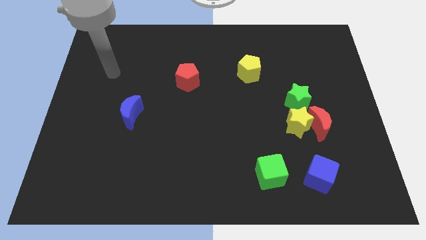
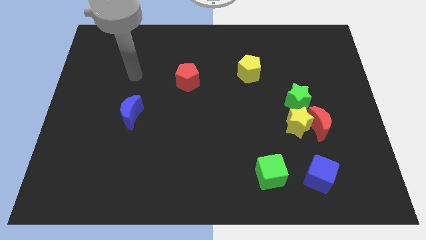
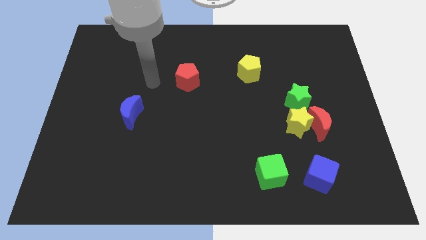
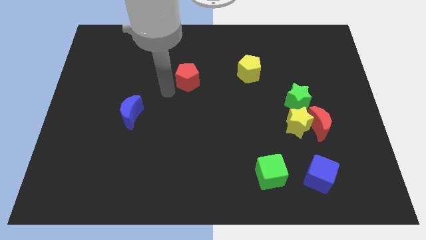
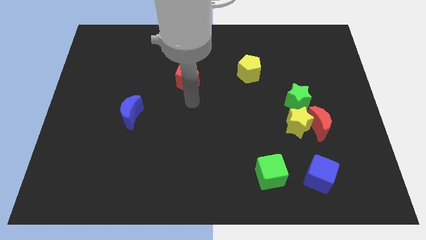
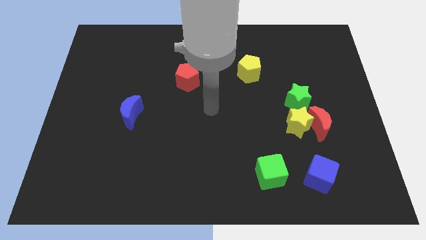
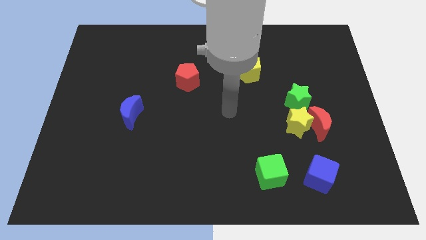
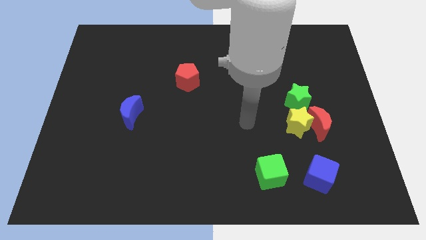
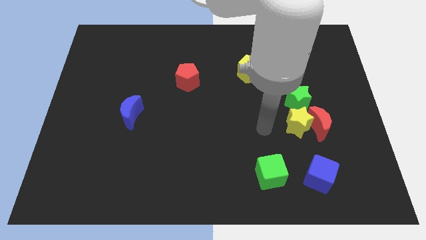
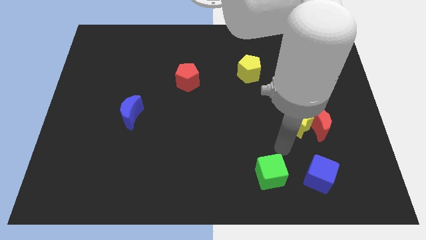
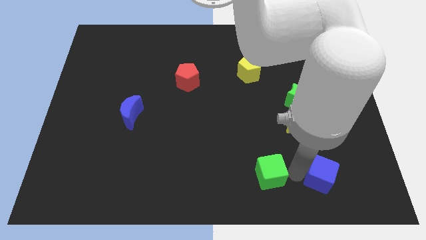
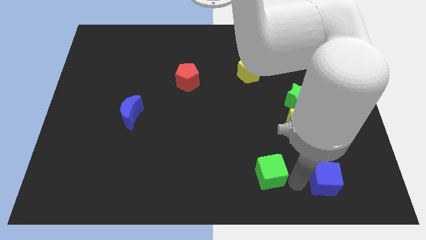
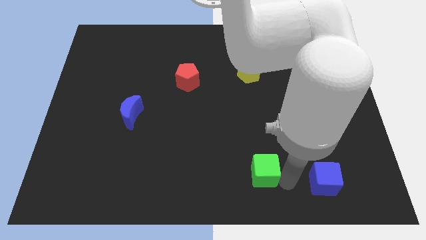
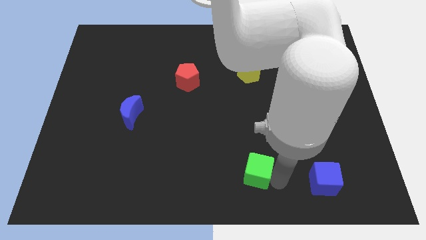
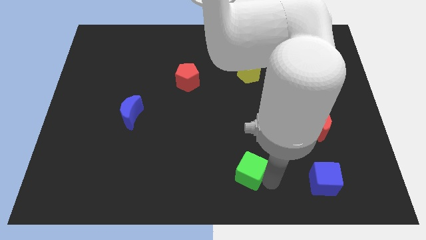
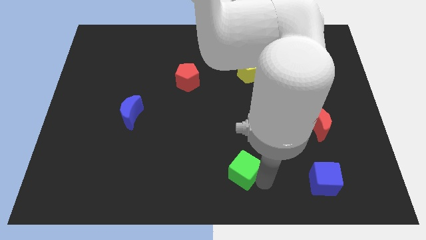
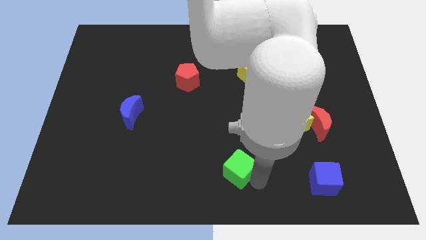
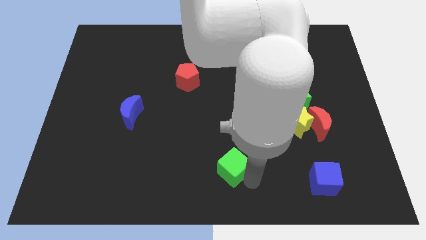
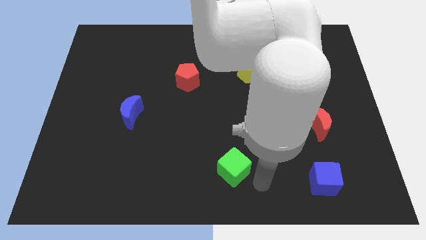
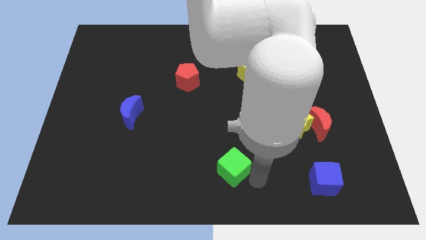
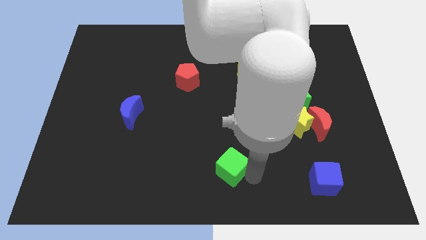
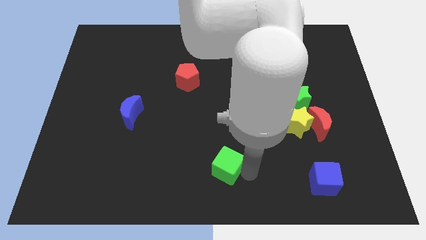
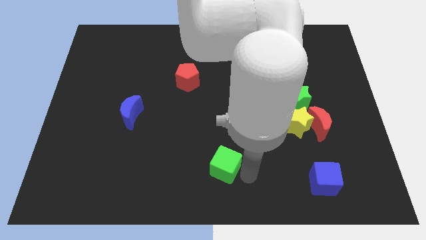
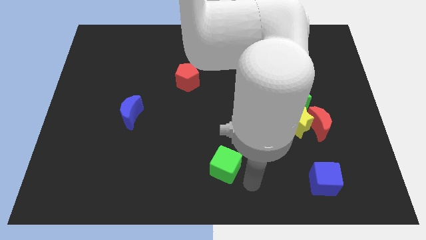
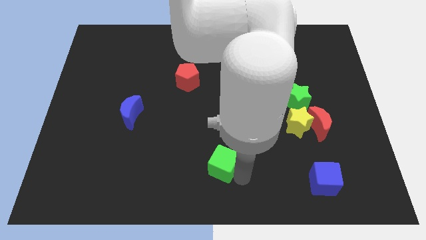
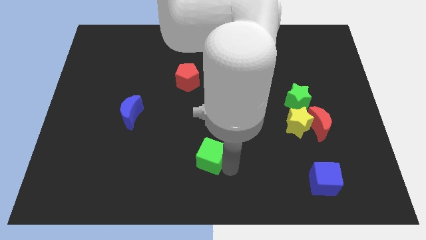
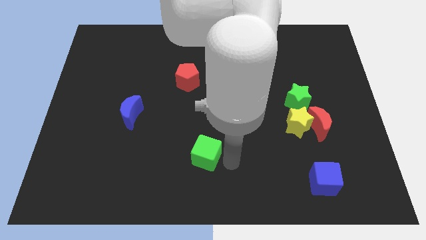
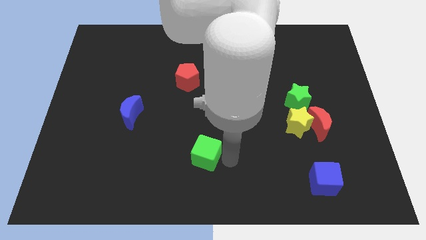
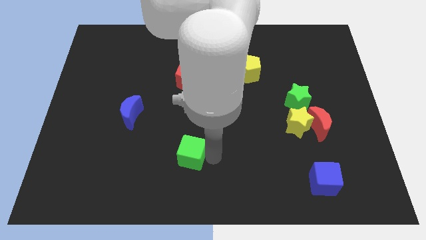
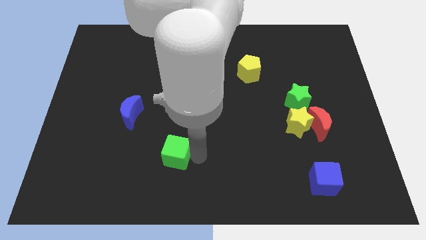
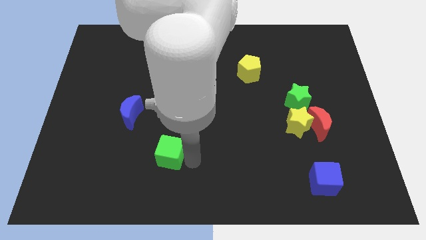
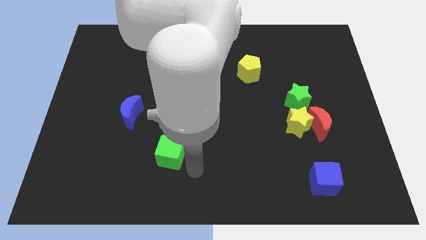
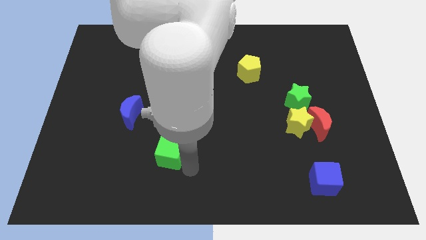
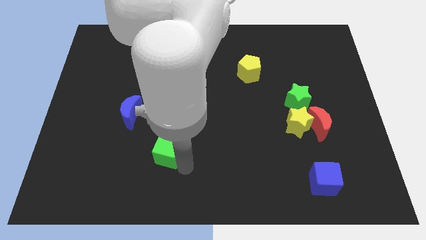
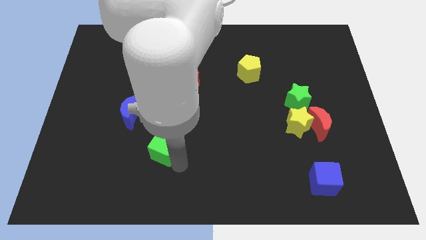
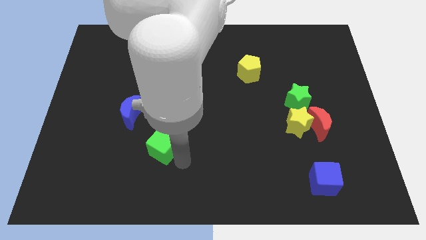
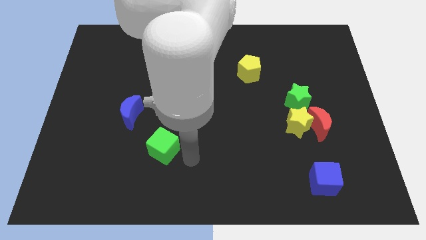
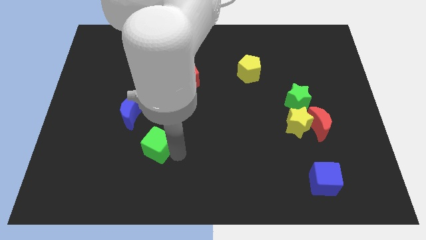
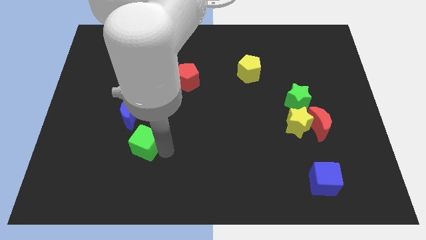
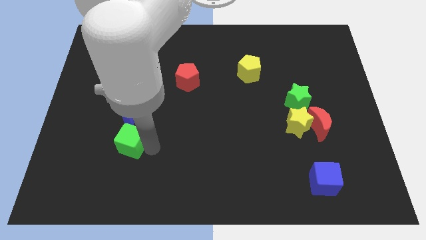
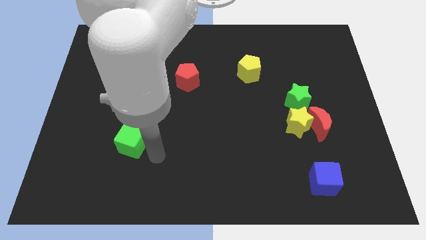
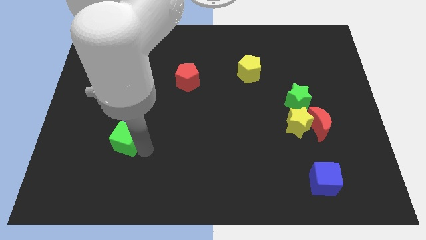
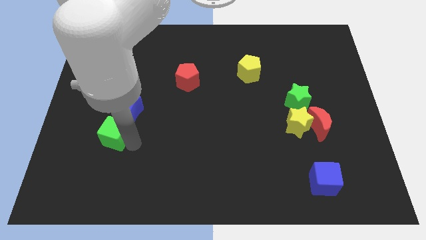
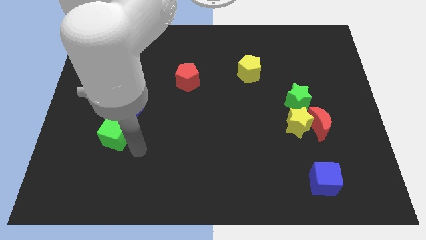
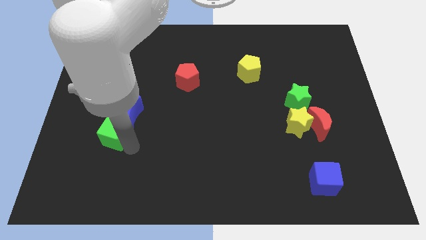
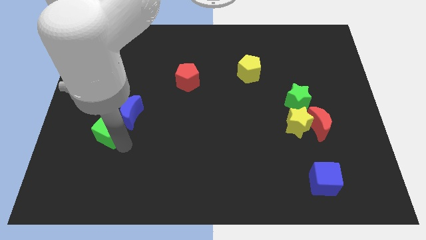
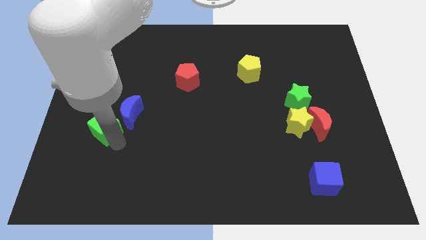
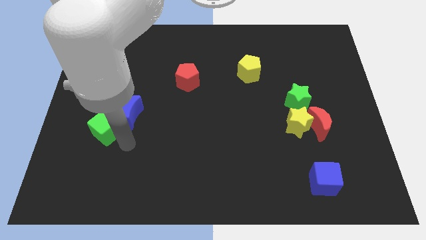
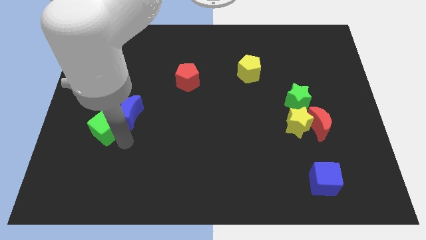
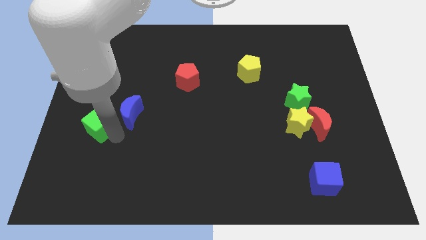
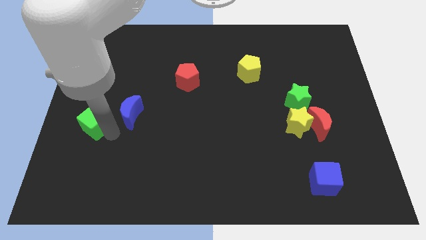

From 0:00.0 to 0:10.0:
put the green cube to the center left

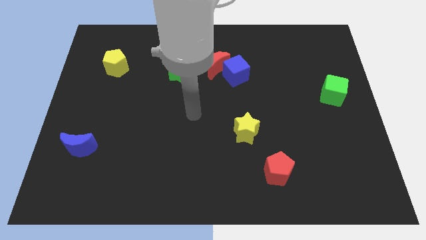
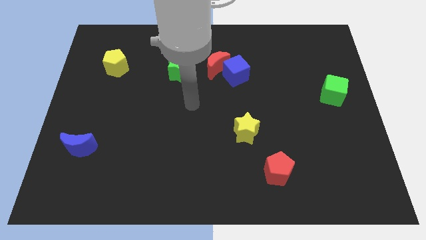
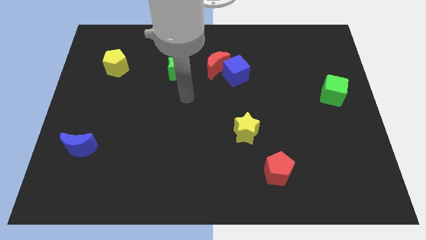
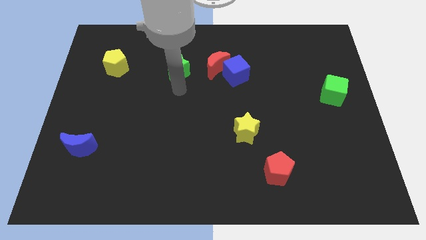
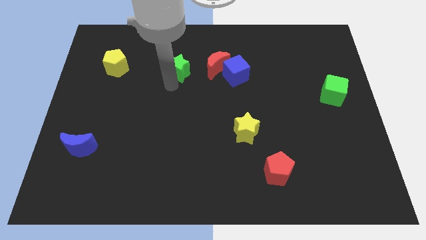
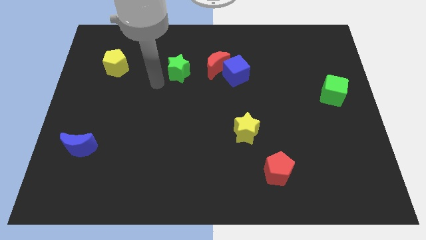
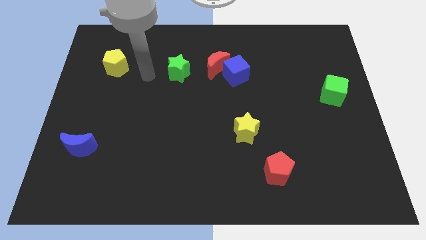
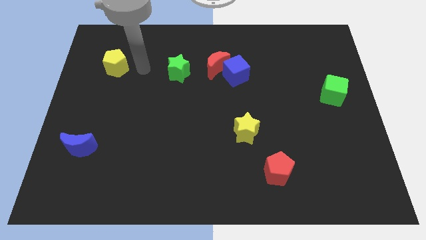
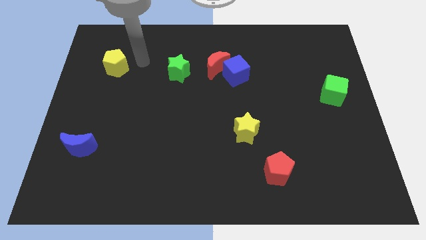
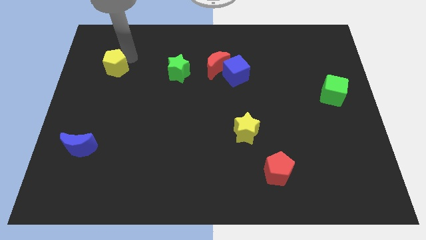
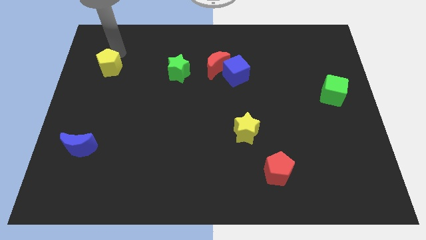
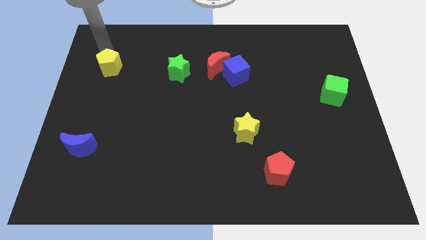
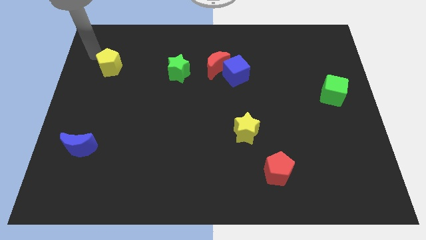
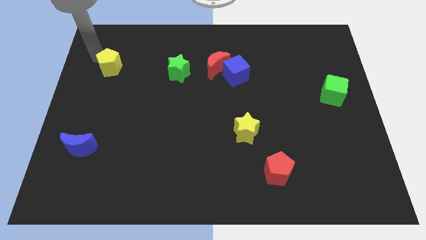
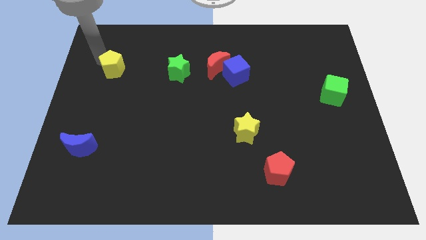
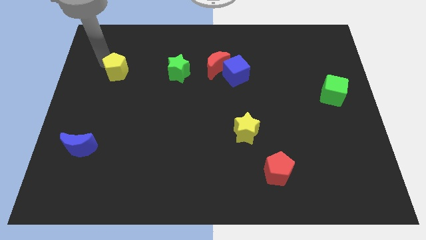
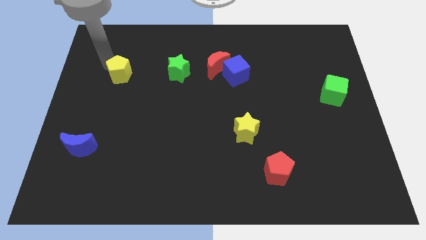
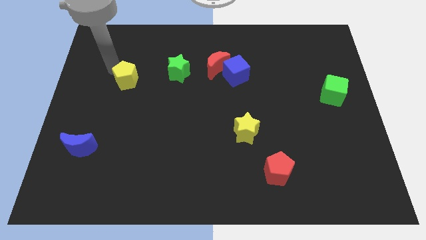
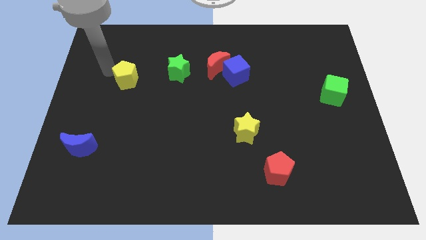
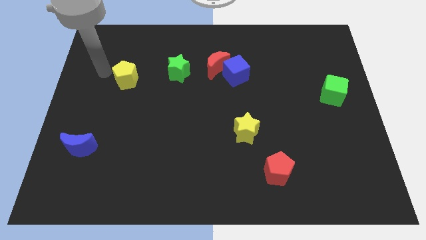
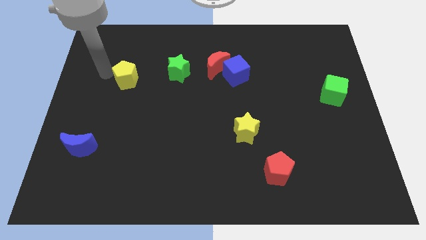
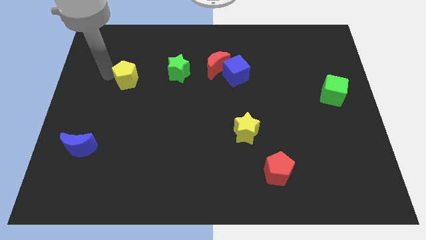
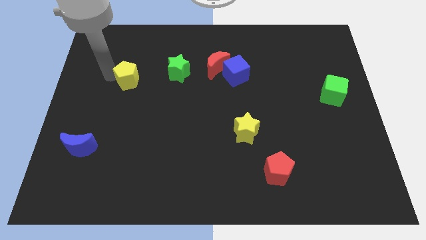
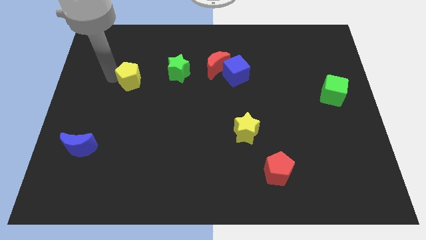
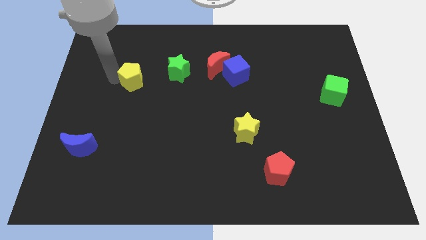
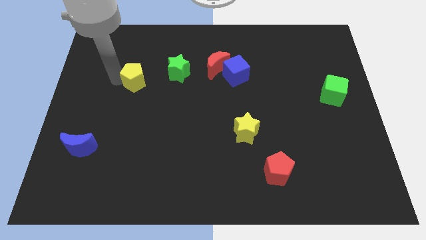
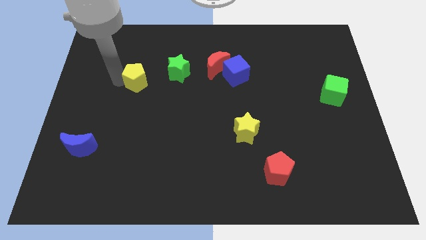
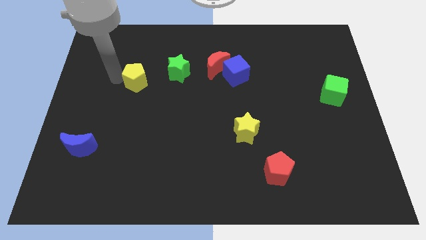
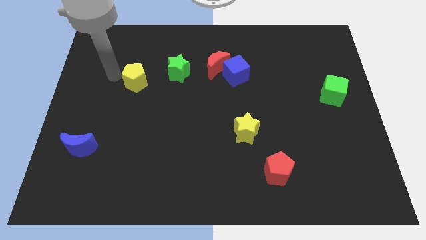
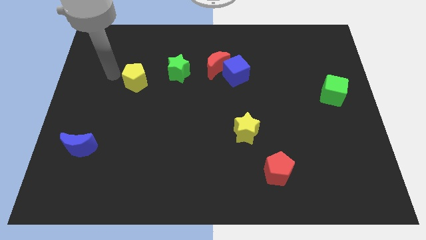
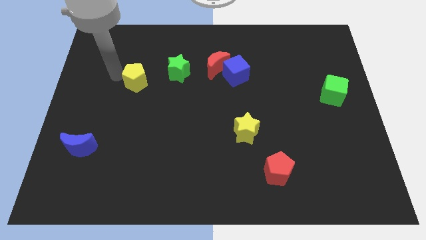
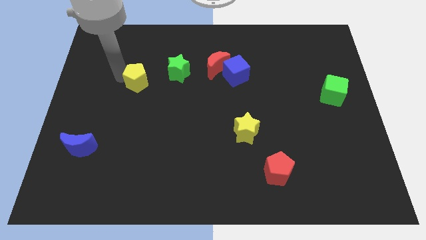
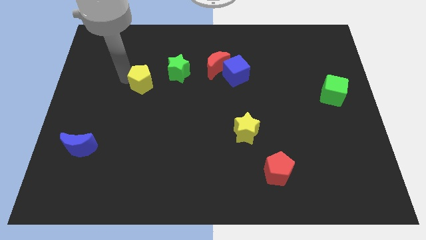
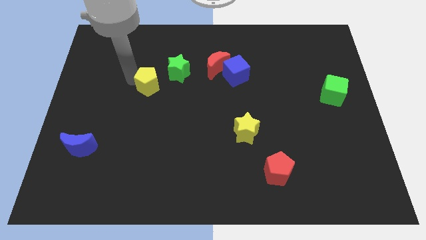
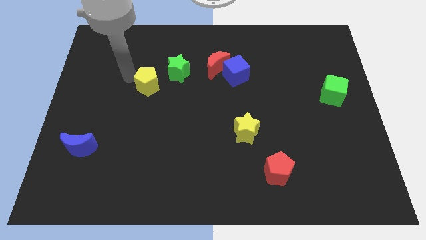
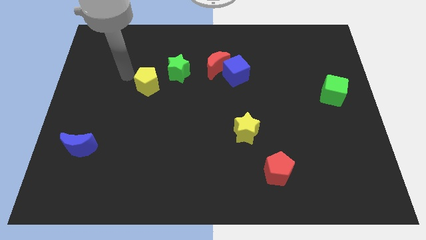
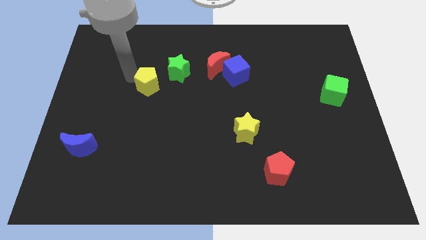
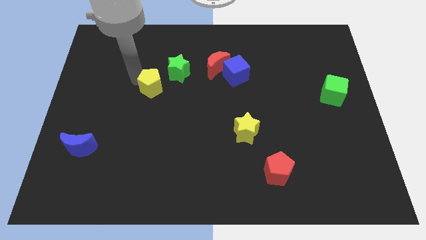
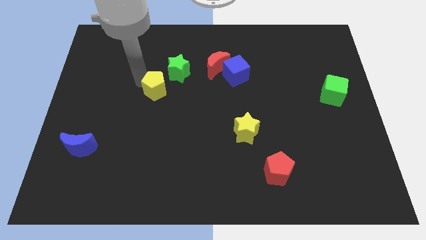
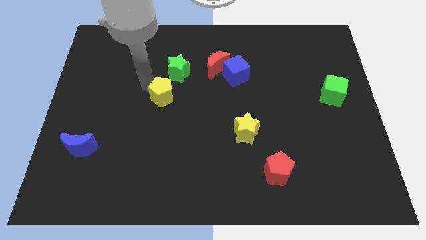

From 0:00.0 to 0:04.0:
put the yellow pentagon to the center of the board
